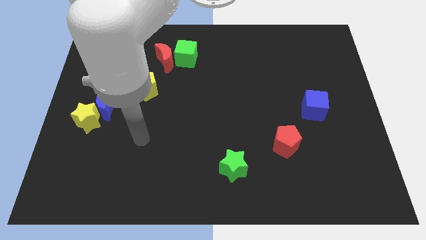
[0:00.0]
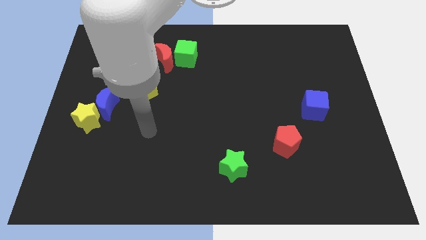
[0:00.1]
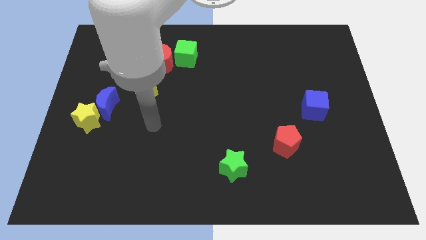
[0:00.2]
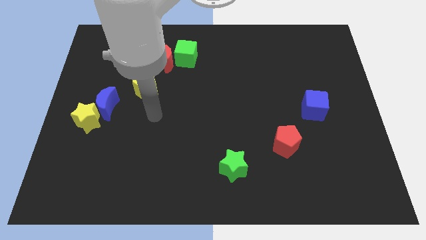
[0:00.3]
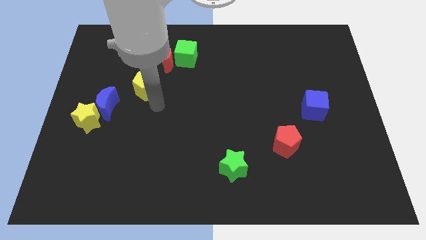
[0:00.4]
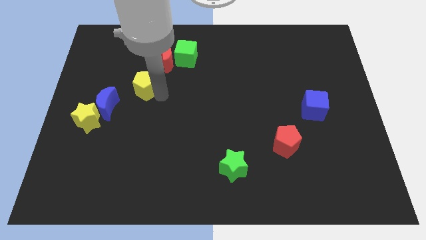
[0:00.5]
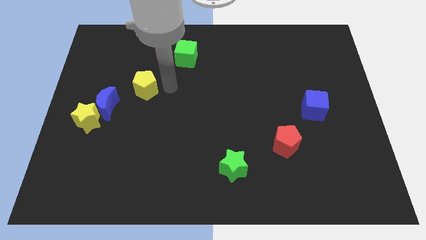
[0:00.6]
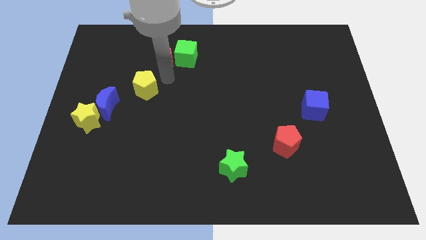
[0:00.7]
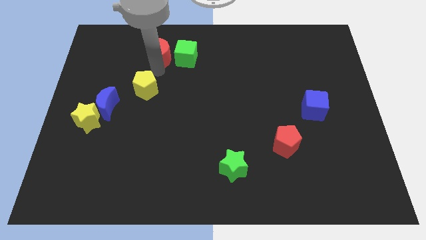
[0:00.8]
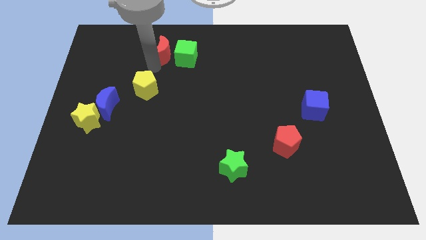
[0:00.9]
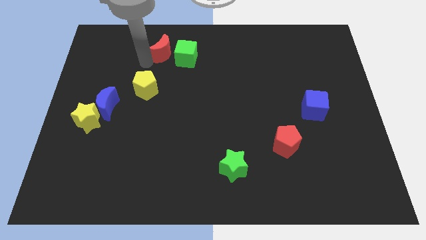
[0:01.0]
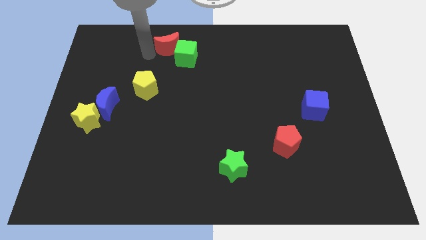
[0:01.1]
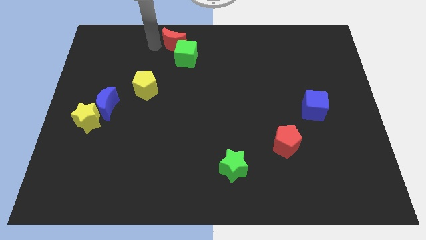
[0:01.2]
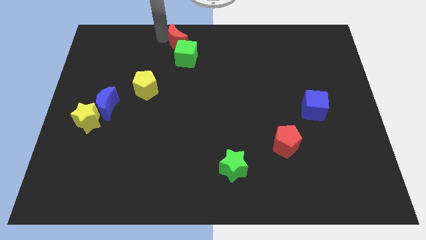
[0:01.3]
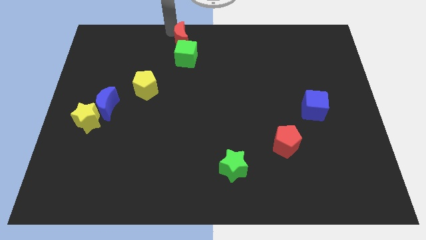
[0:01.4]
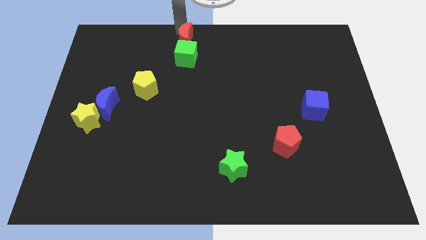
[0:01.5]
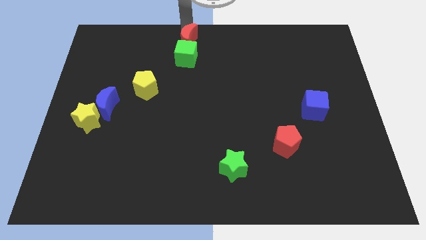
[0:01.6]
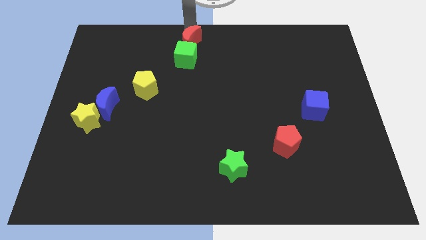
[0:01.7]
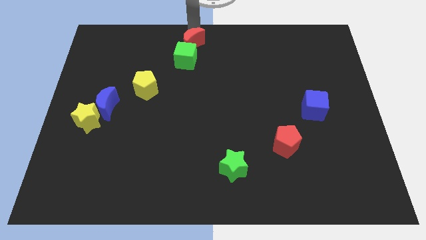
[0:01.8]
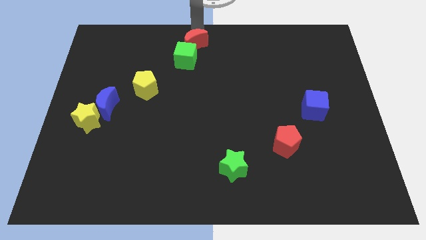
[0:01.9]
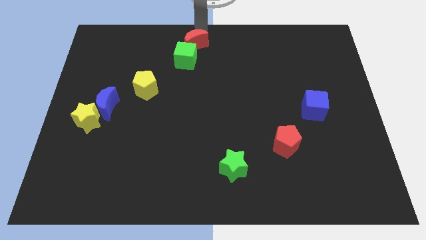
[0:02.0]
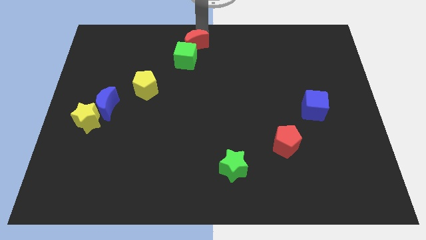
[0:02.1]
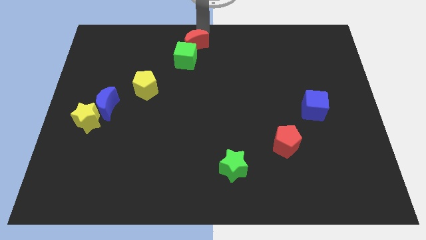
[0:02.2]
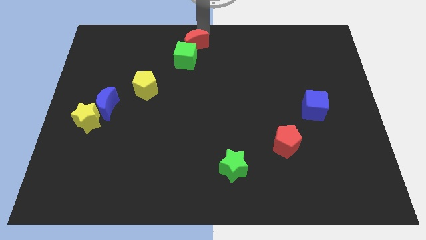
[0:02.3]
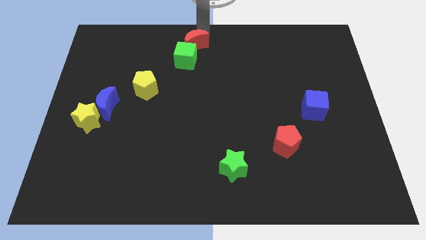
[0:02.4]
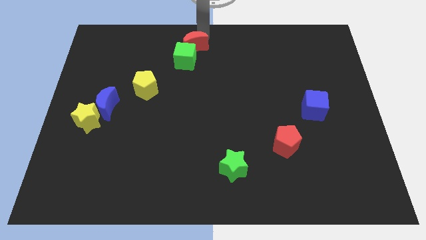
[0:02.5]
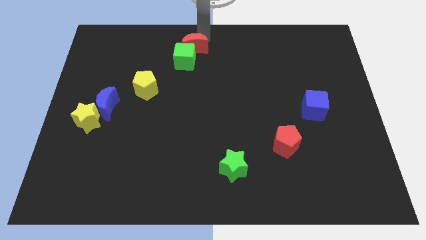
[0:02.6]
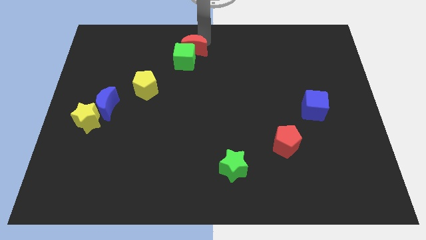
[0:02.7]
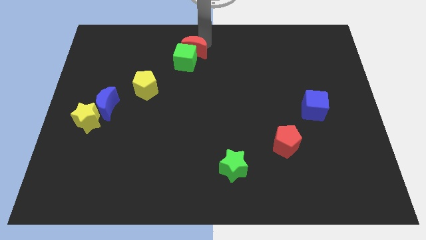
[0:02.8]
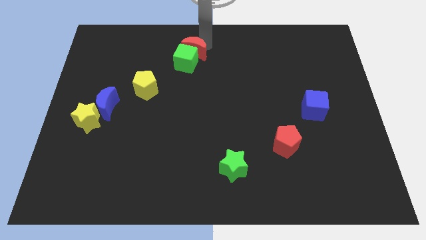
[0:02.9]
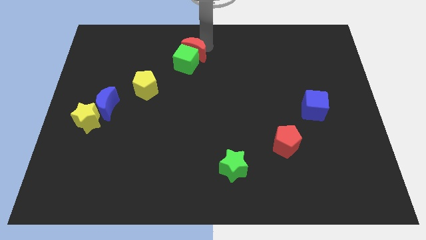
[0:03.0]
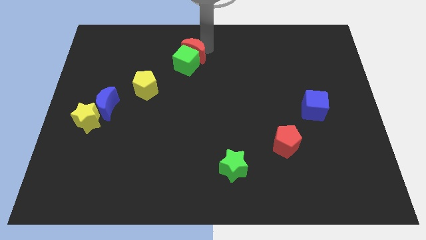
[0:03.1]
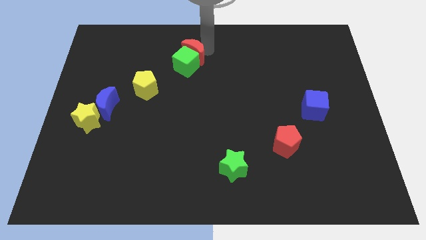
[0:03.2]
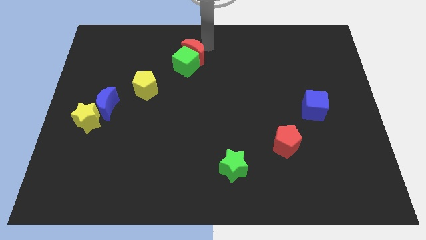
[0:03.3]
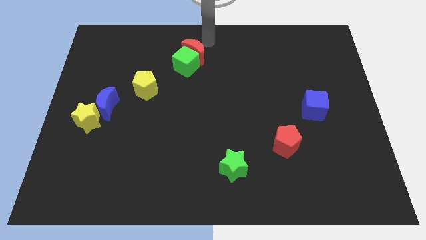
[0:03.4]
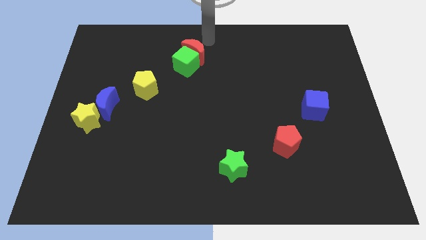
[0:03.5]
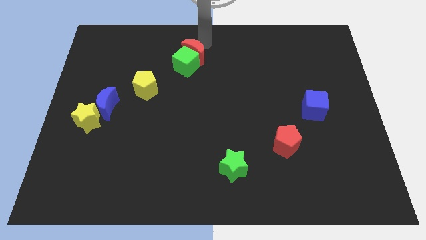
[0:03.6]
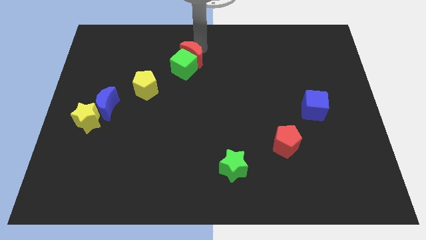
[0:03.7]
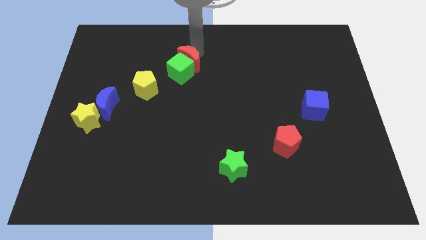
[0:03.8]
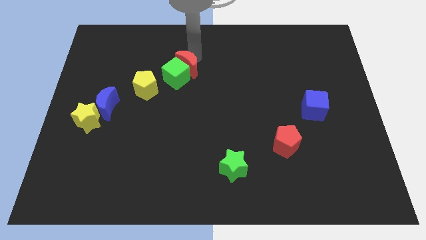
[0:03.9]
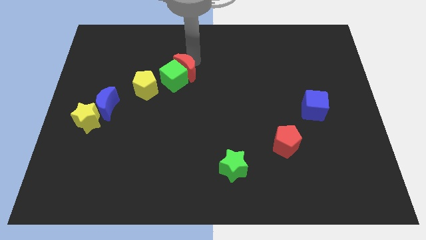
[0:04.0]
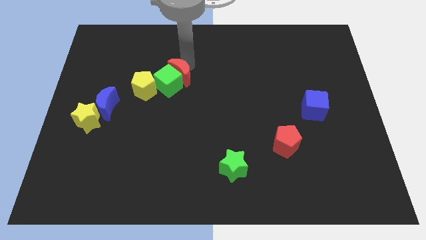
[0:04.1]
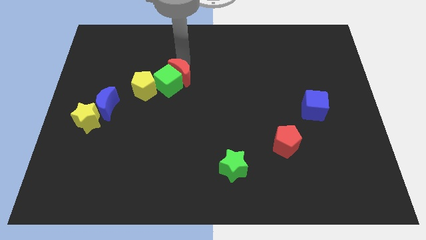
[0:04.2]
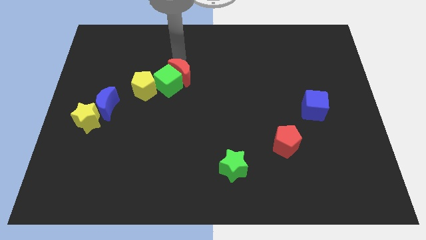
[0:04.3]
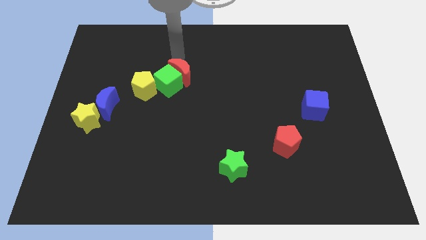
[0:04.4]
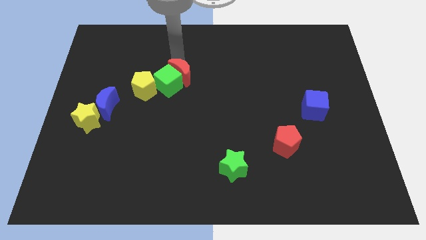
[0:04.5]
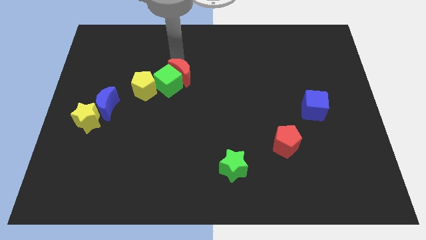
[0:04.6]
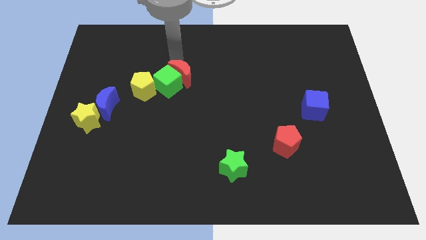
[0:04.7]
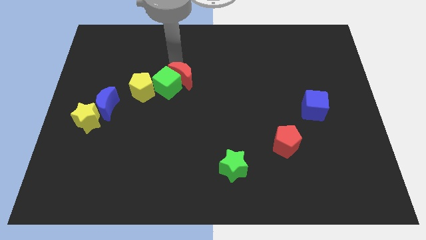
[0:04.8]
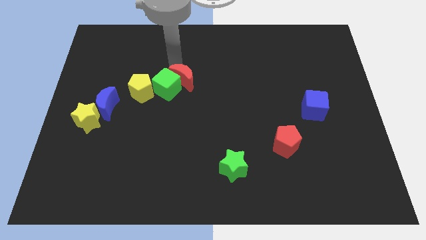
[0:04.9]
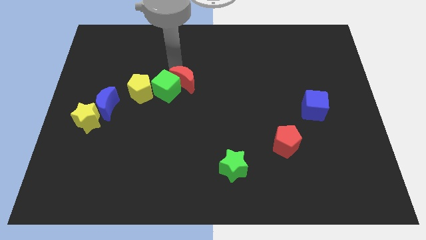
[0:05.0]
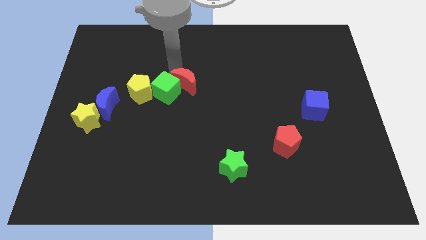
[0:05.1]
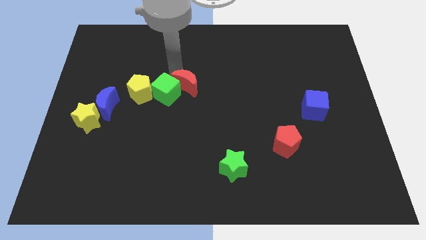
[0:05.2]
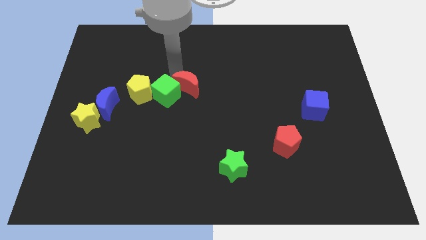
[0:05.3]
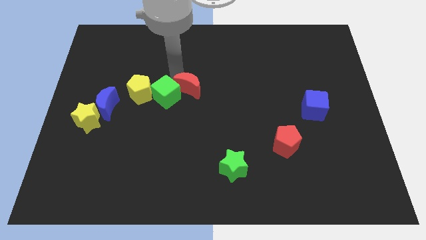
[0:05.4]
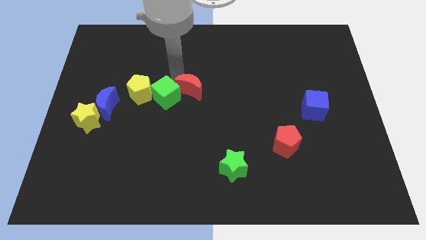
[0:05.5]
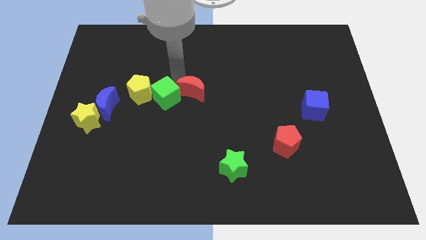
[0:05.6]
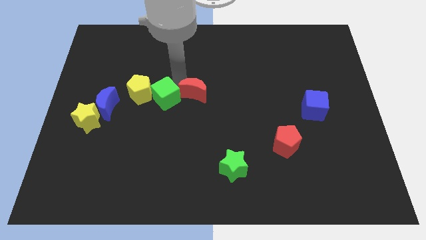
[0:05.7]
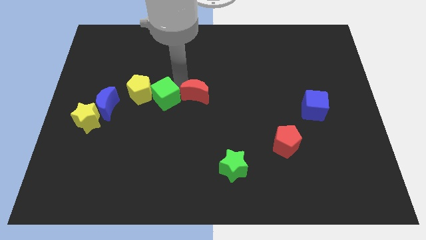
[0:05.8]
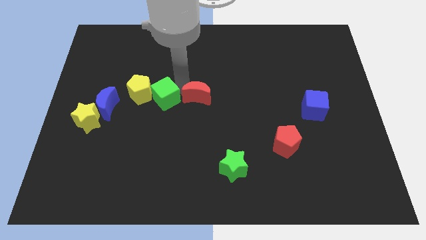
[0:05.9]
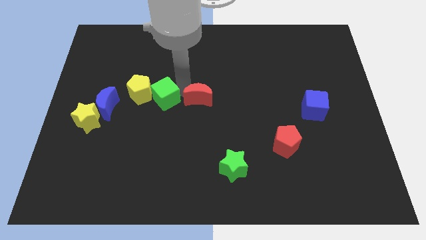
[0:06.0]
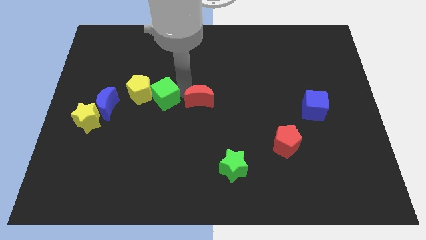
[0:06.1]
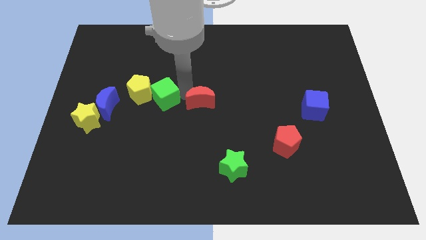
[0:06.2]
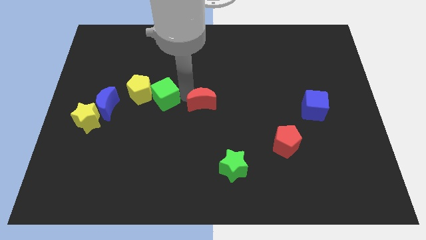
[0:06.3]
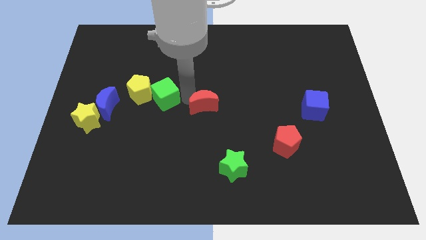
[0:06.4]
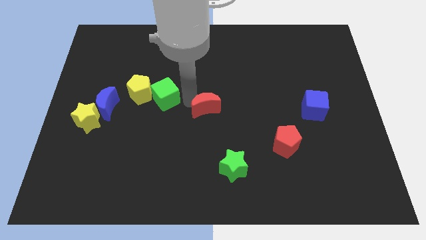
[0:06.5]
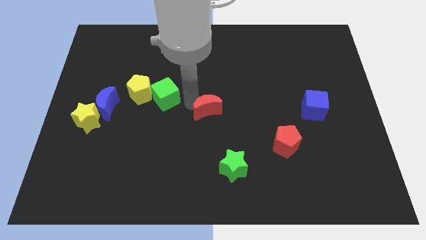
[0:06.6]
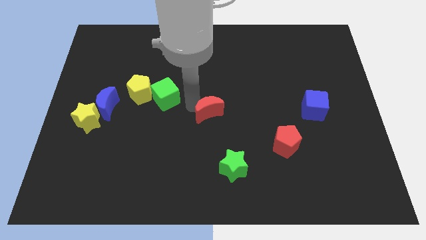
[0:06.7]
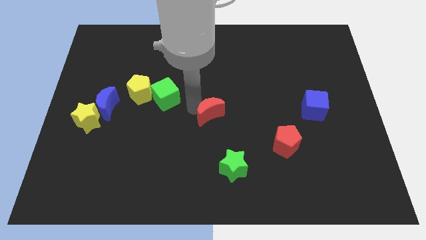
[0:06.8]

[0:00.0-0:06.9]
push the red moon down and to the right

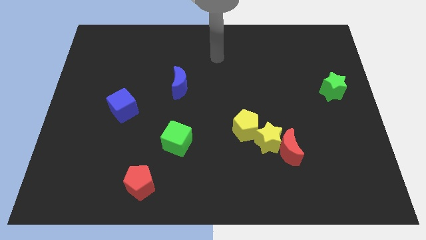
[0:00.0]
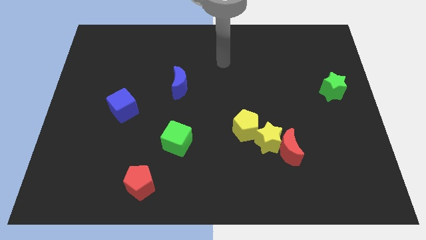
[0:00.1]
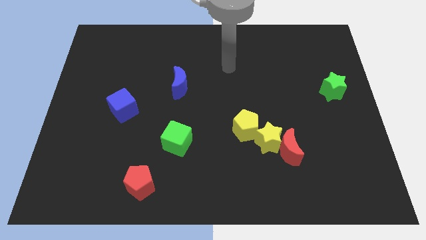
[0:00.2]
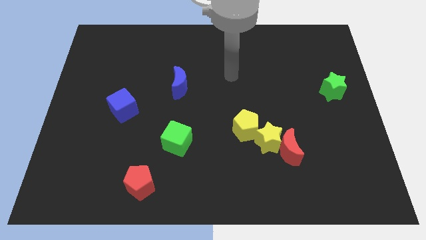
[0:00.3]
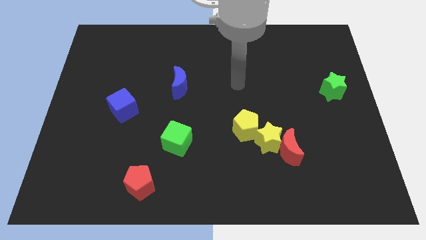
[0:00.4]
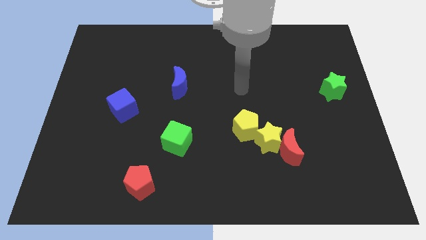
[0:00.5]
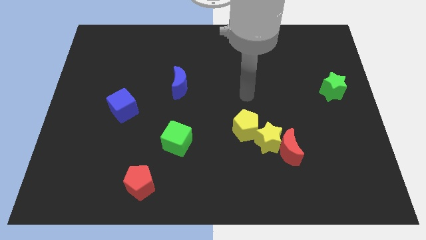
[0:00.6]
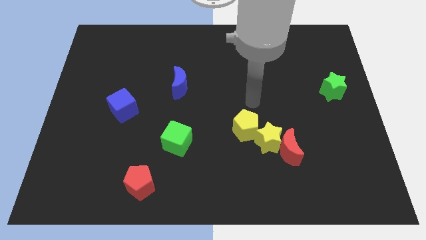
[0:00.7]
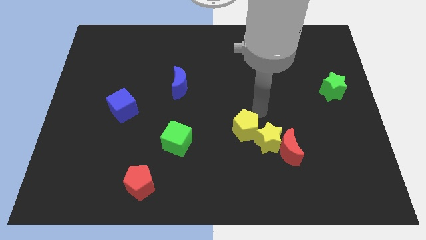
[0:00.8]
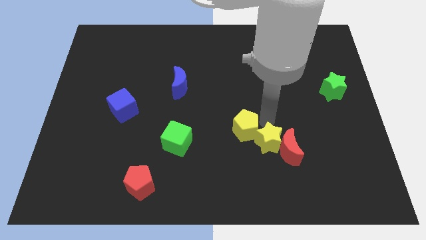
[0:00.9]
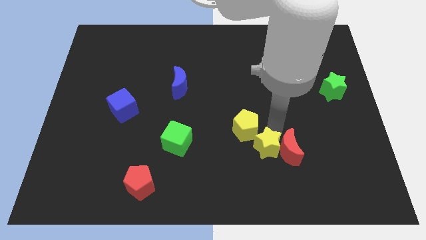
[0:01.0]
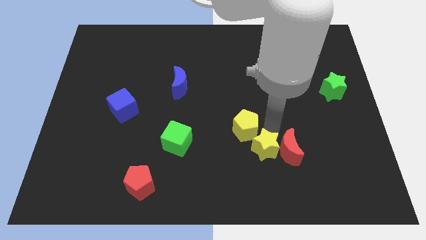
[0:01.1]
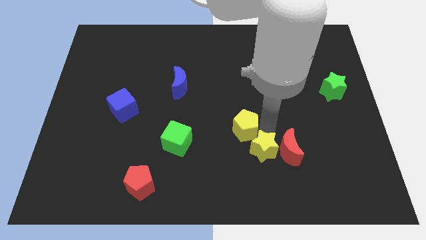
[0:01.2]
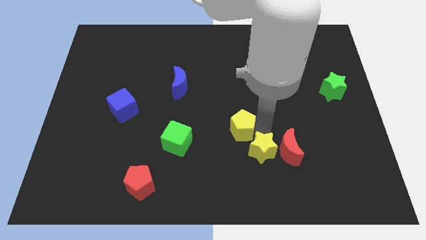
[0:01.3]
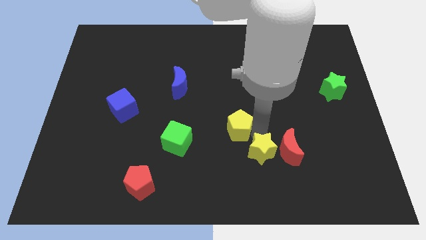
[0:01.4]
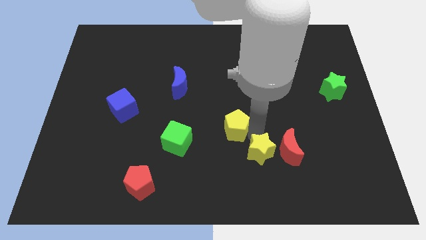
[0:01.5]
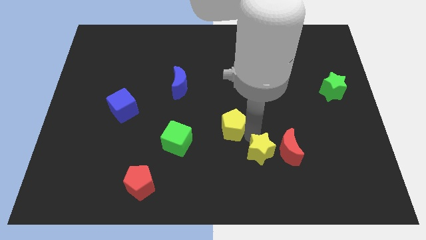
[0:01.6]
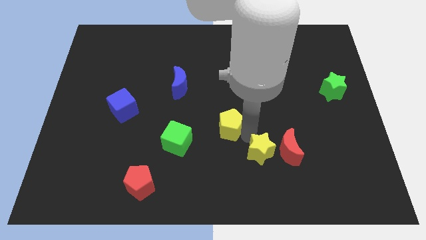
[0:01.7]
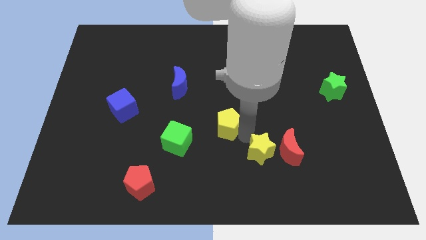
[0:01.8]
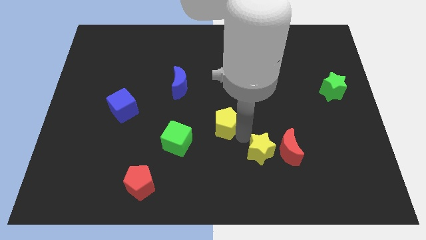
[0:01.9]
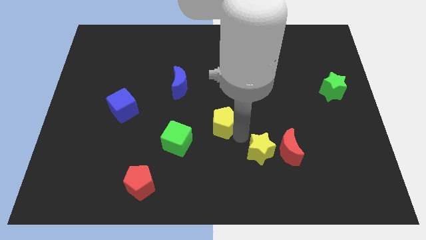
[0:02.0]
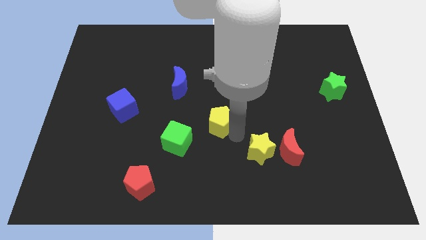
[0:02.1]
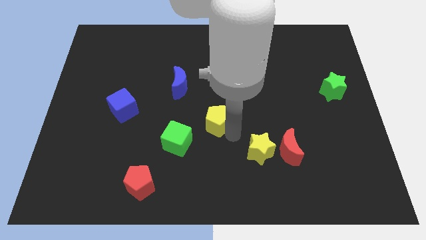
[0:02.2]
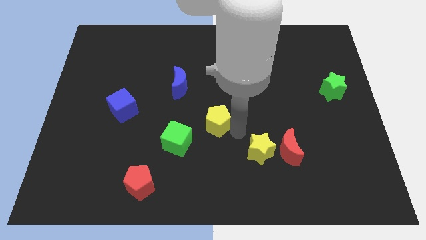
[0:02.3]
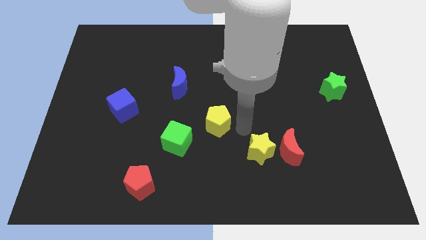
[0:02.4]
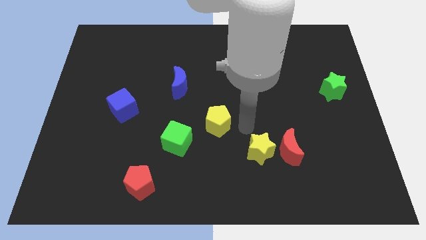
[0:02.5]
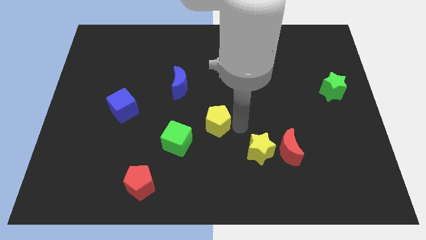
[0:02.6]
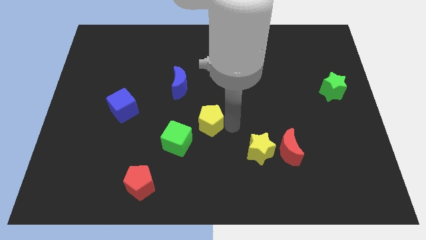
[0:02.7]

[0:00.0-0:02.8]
move the yellow pentagon somewhat to the left
